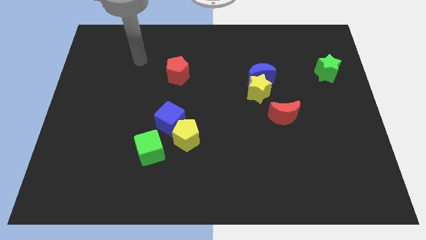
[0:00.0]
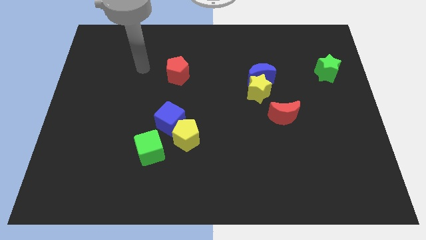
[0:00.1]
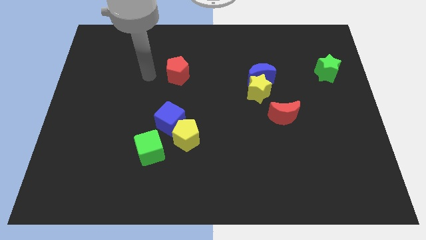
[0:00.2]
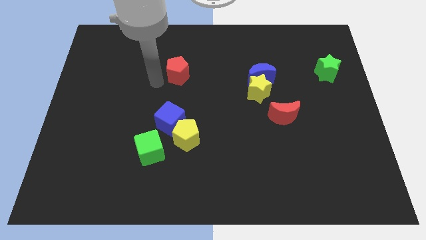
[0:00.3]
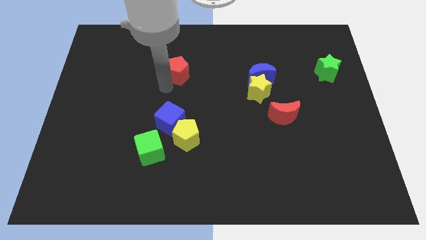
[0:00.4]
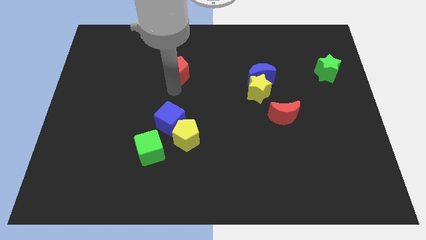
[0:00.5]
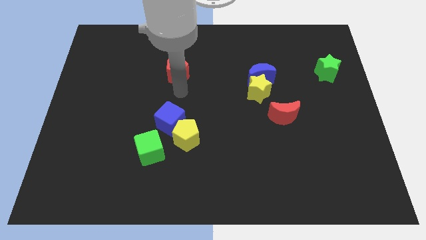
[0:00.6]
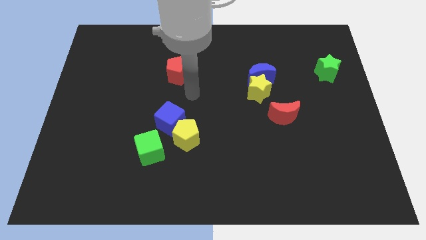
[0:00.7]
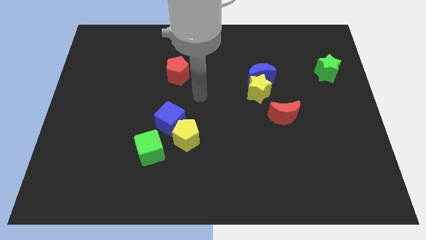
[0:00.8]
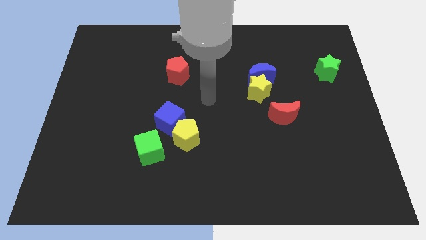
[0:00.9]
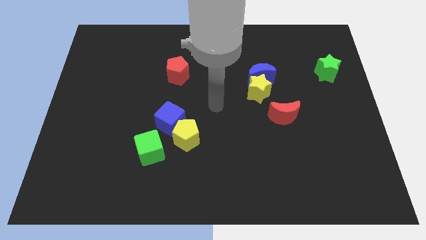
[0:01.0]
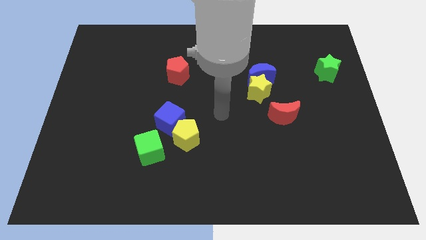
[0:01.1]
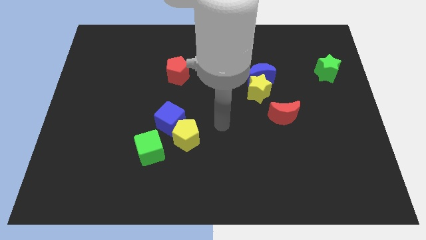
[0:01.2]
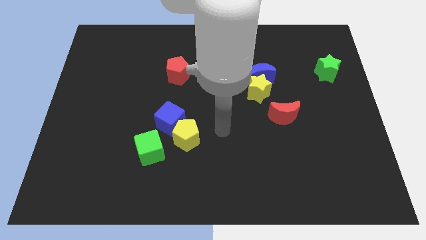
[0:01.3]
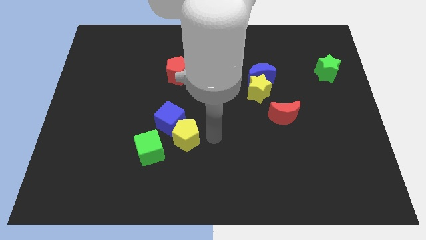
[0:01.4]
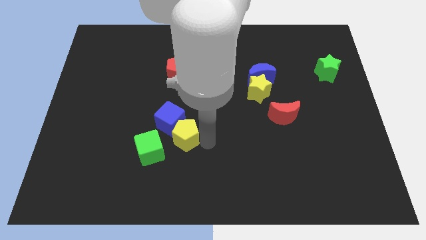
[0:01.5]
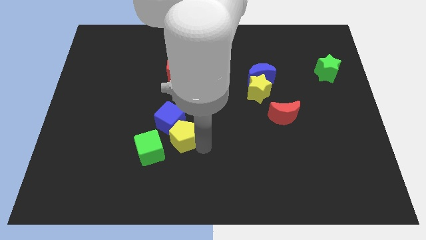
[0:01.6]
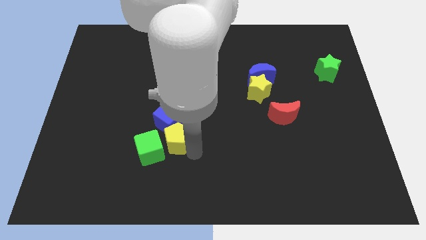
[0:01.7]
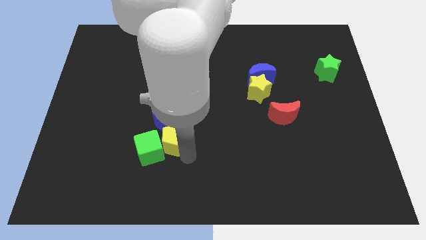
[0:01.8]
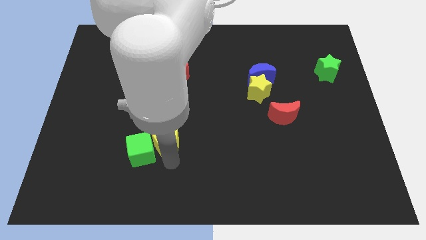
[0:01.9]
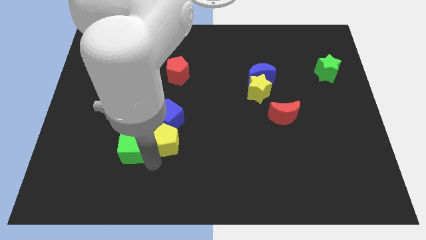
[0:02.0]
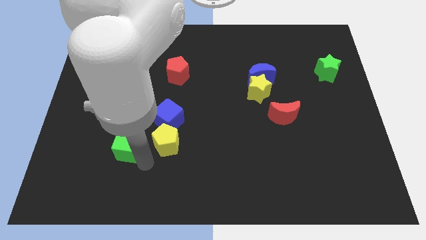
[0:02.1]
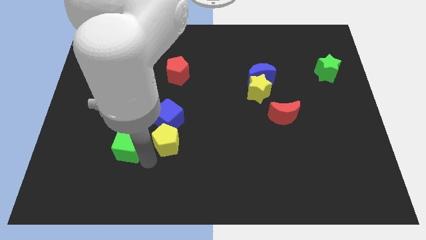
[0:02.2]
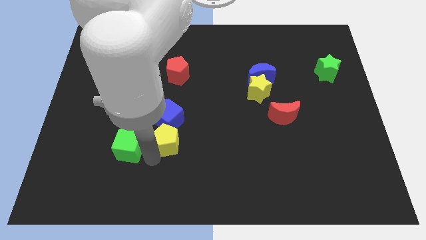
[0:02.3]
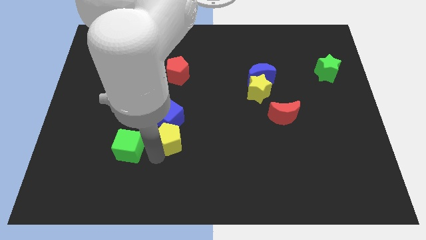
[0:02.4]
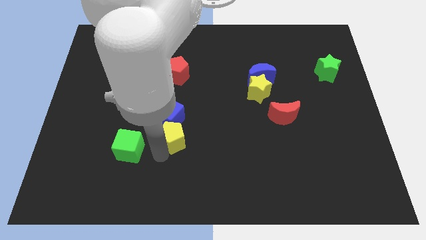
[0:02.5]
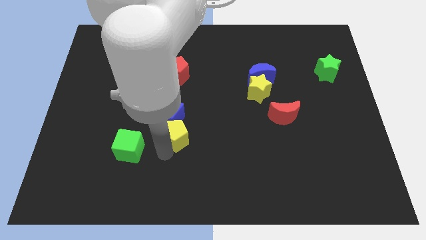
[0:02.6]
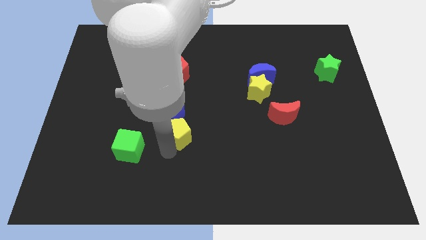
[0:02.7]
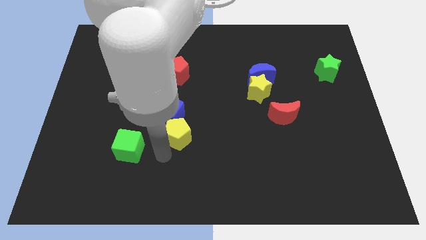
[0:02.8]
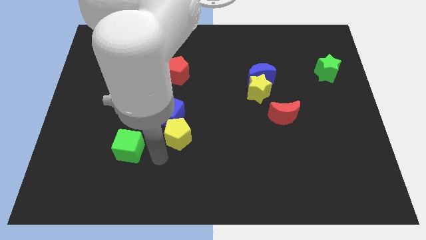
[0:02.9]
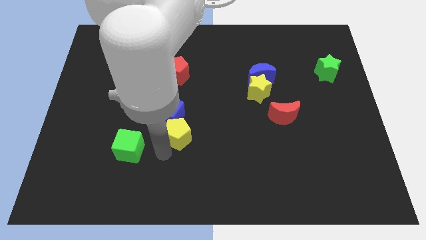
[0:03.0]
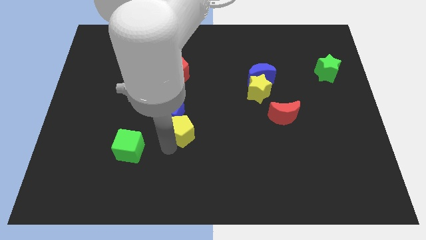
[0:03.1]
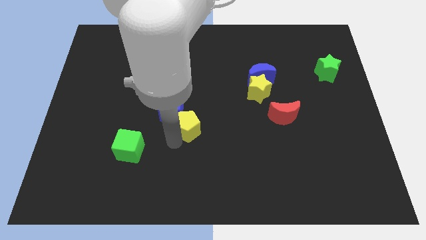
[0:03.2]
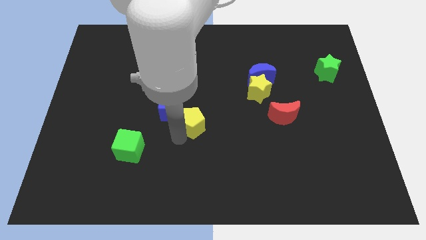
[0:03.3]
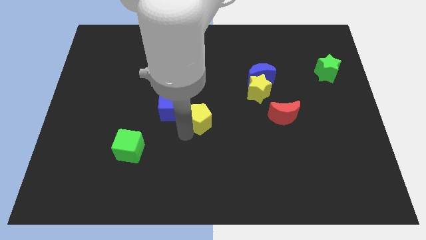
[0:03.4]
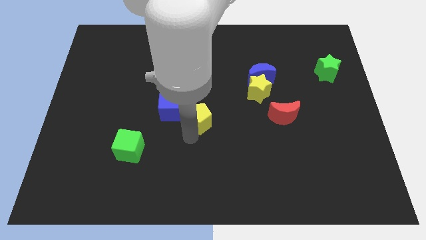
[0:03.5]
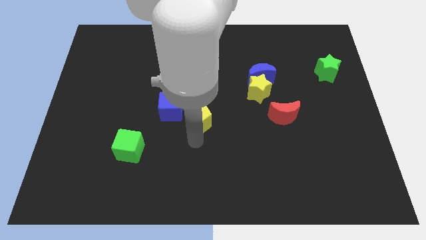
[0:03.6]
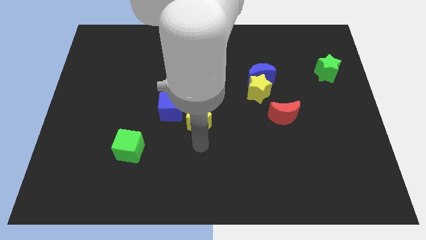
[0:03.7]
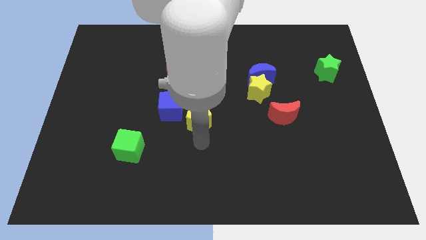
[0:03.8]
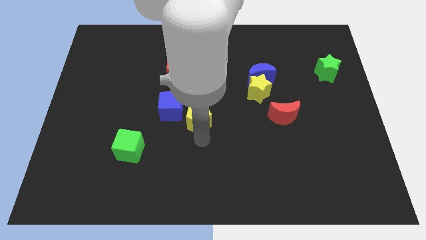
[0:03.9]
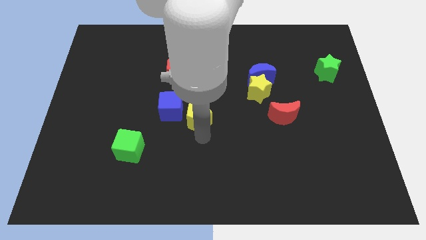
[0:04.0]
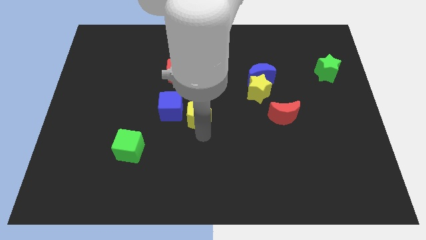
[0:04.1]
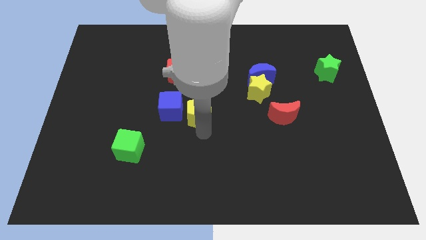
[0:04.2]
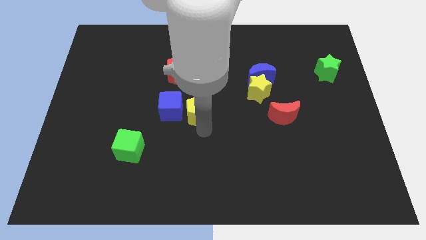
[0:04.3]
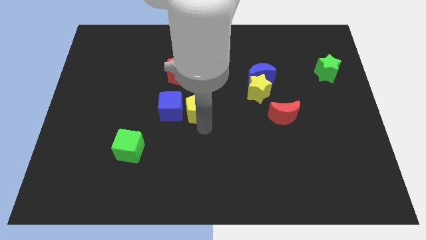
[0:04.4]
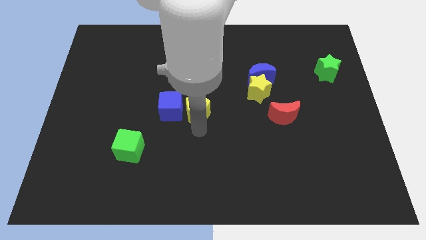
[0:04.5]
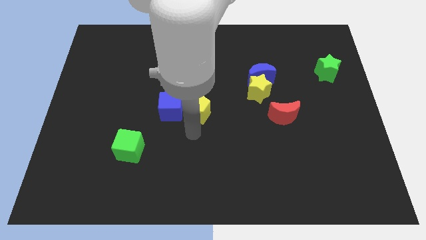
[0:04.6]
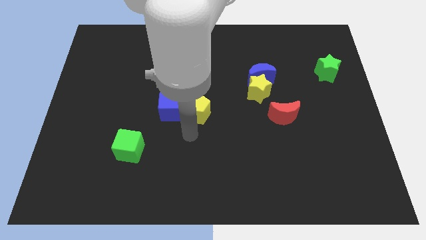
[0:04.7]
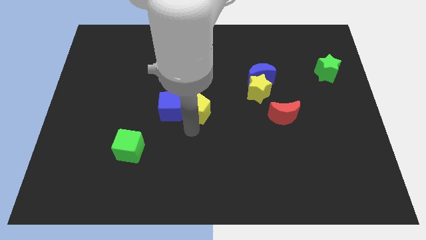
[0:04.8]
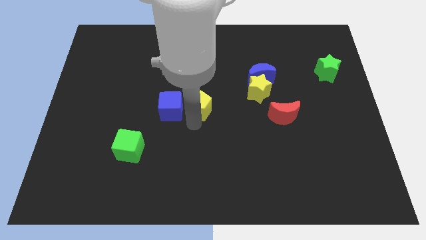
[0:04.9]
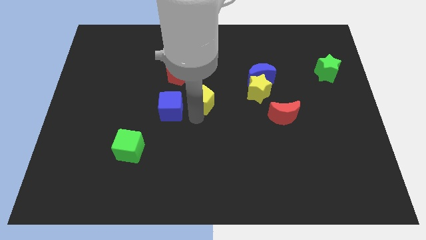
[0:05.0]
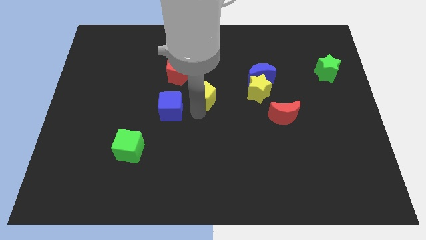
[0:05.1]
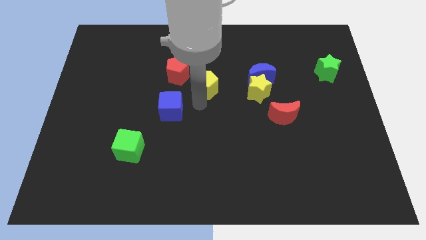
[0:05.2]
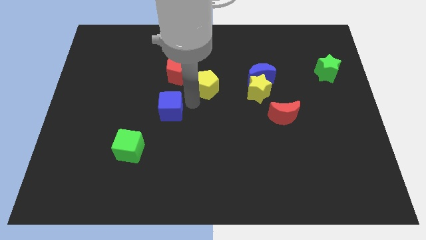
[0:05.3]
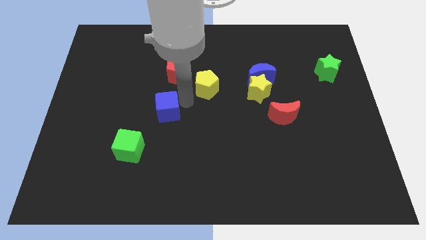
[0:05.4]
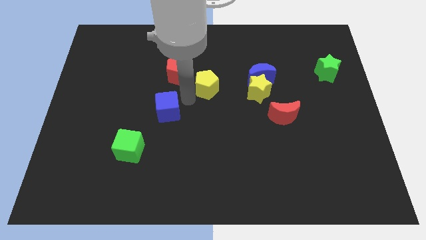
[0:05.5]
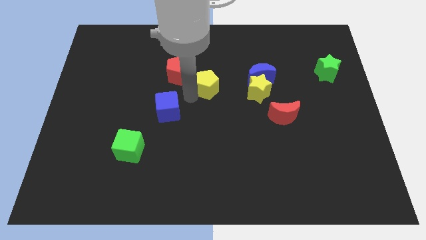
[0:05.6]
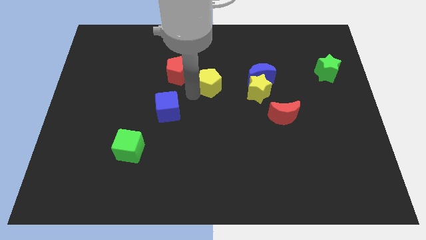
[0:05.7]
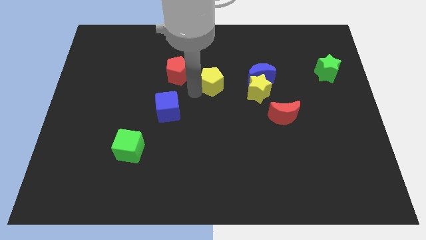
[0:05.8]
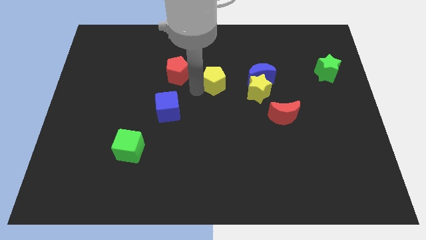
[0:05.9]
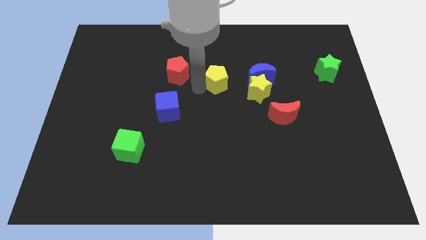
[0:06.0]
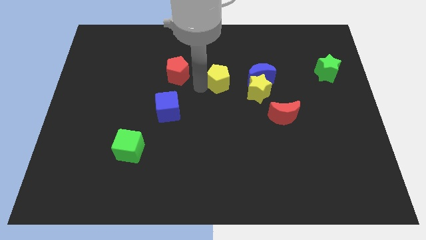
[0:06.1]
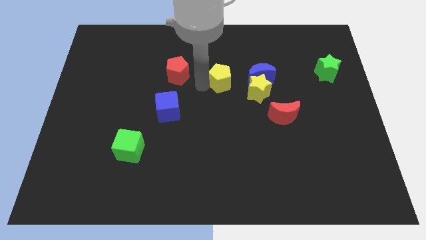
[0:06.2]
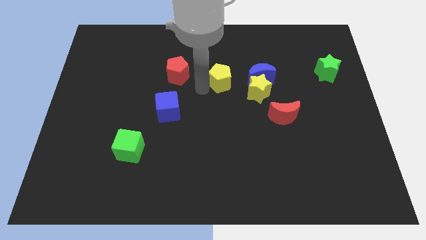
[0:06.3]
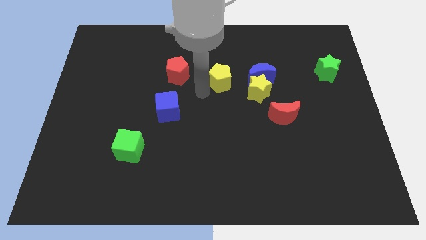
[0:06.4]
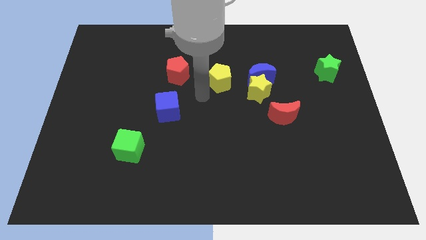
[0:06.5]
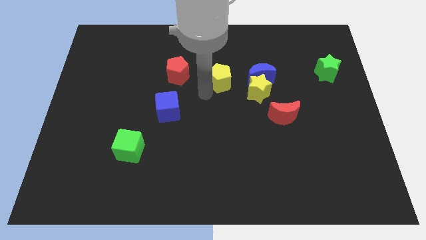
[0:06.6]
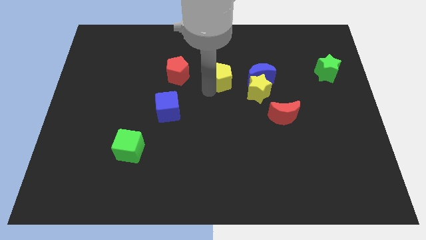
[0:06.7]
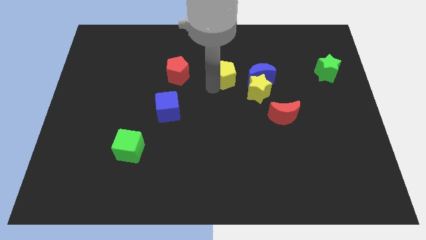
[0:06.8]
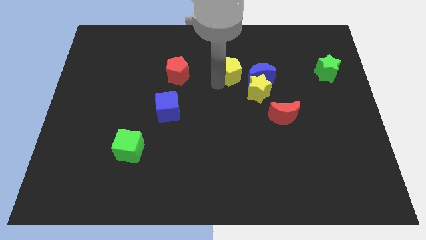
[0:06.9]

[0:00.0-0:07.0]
push the yellow pentagon to the top left side of the blue moon

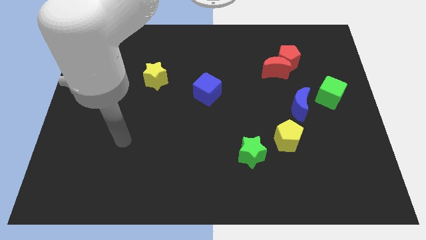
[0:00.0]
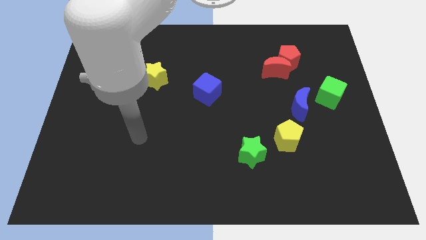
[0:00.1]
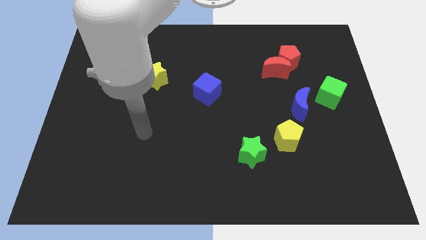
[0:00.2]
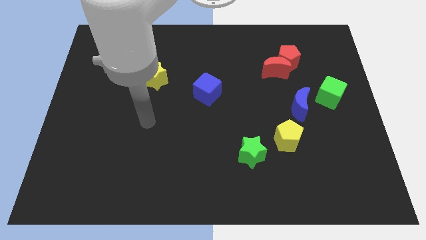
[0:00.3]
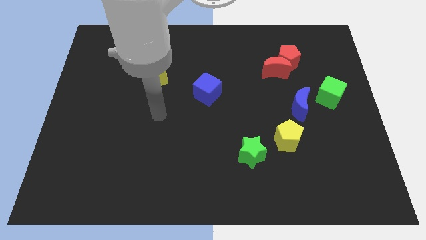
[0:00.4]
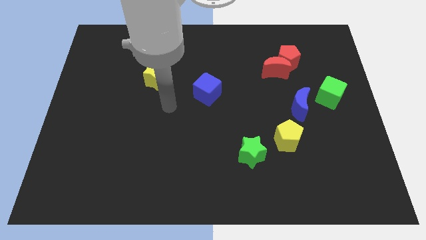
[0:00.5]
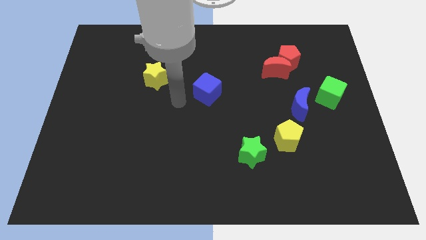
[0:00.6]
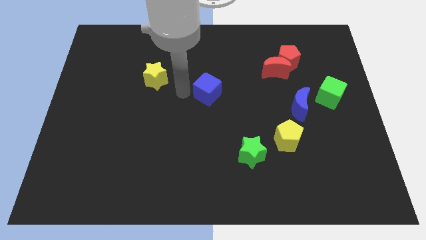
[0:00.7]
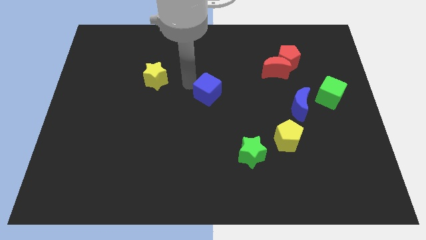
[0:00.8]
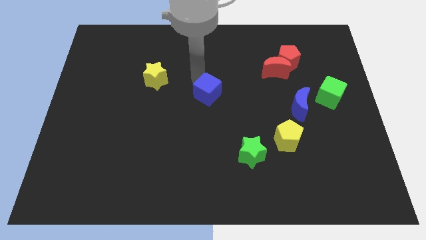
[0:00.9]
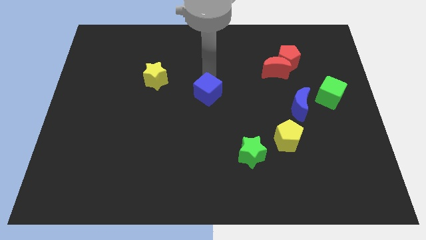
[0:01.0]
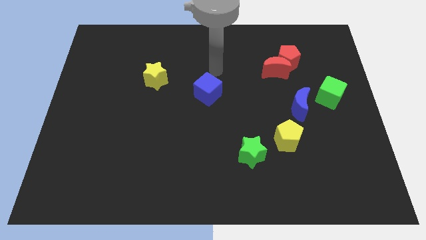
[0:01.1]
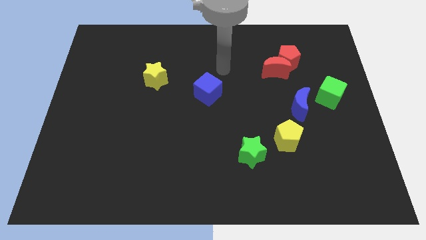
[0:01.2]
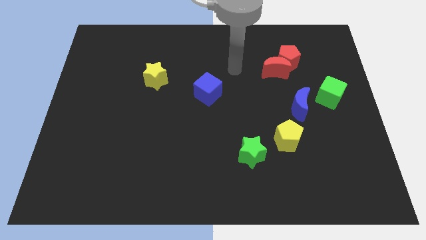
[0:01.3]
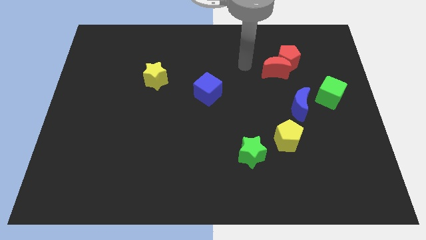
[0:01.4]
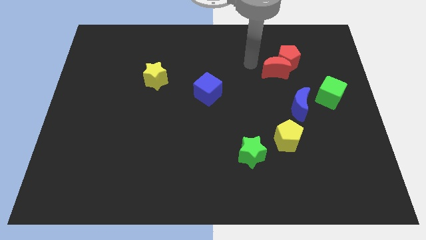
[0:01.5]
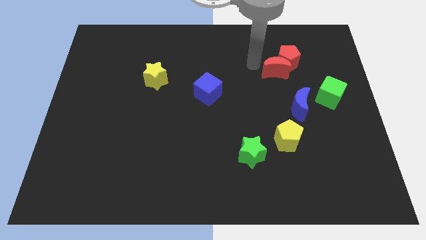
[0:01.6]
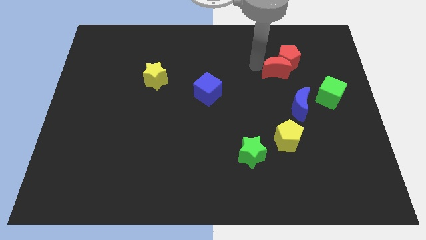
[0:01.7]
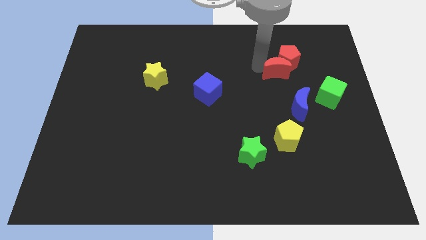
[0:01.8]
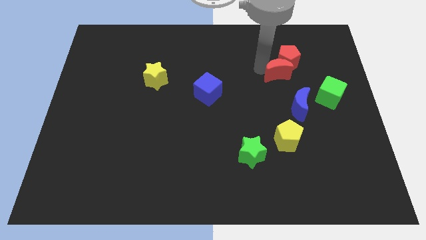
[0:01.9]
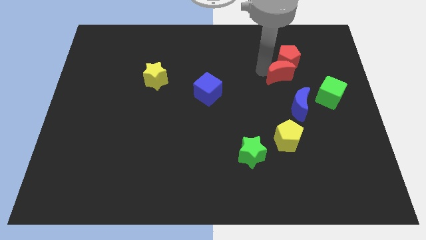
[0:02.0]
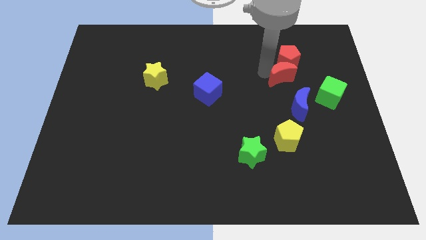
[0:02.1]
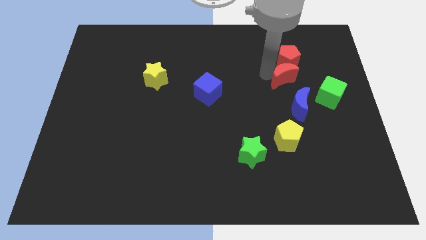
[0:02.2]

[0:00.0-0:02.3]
slide the red moon diagonally up and to the left of the green cube
